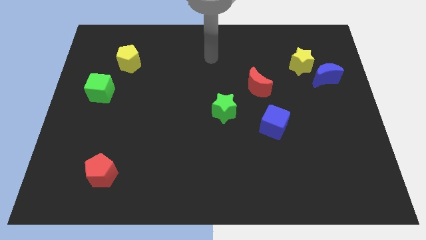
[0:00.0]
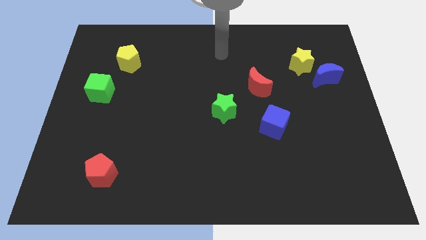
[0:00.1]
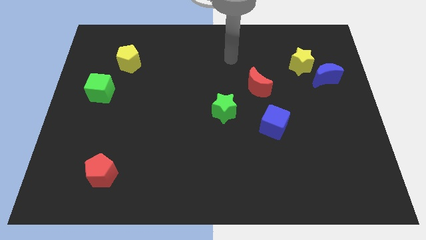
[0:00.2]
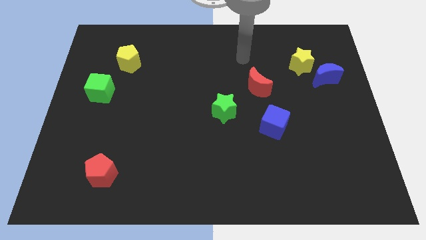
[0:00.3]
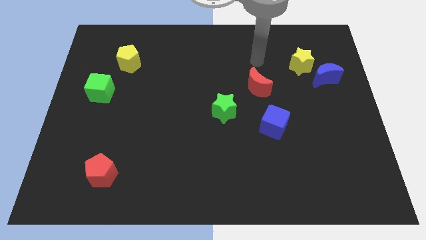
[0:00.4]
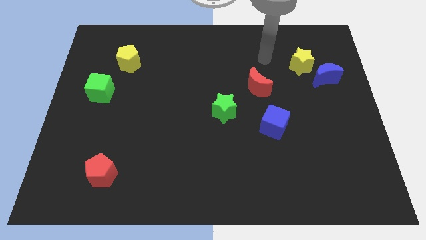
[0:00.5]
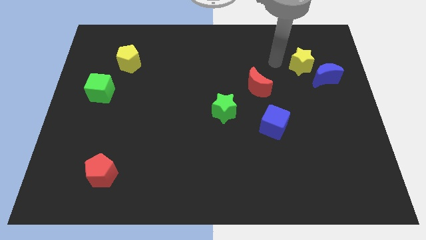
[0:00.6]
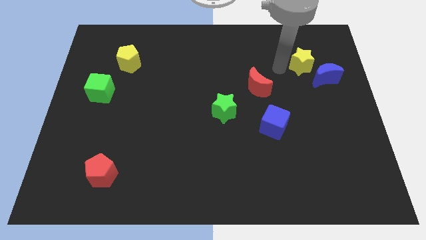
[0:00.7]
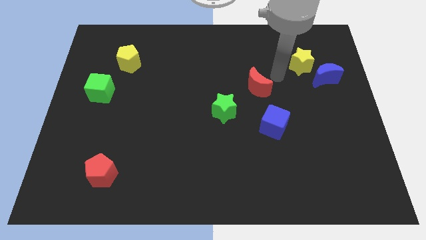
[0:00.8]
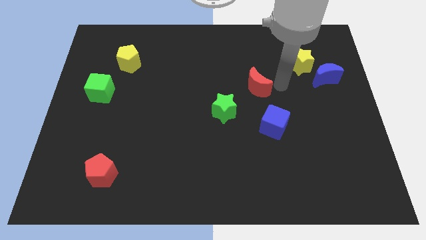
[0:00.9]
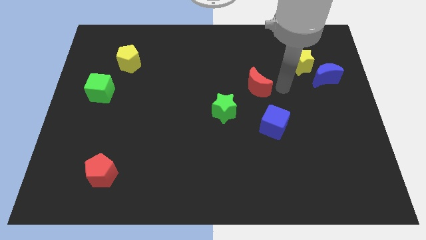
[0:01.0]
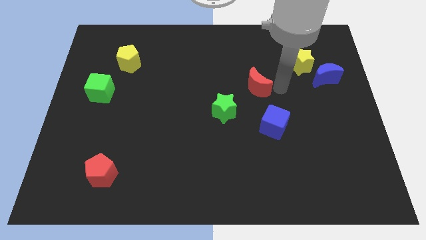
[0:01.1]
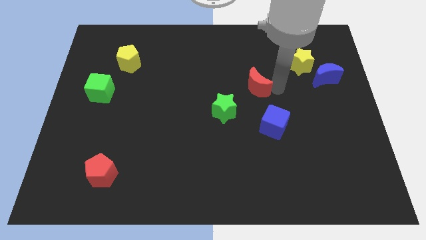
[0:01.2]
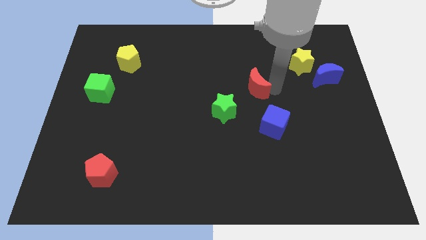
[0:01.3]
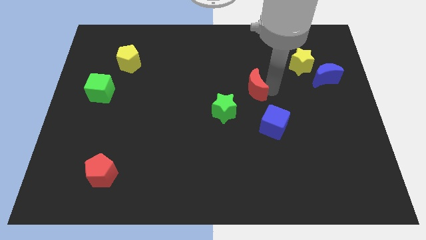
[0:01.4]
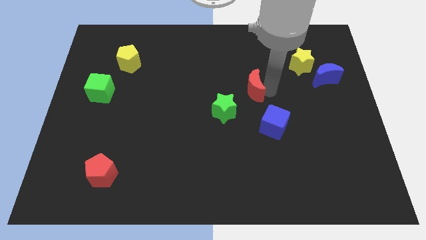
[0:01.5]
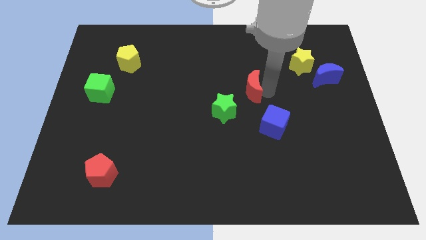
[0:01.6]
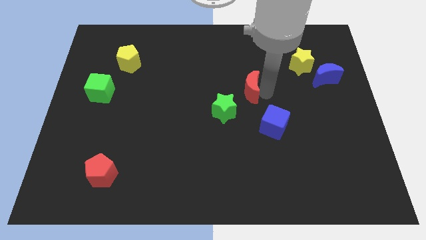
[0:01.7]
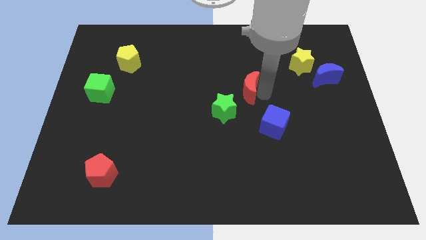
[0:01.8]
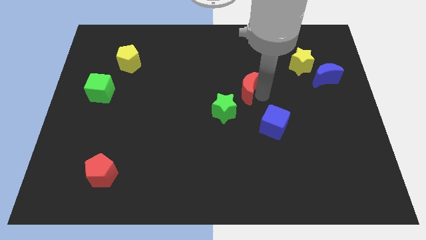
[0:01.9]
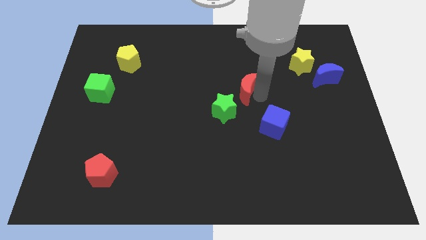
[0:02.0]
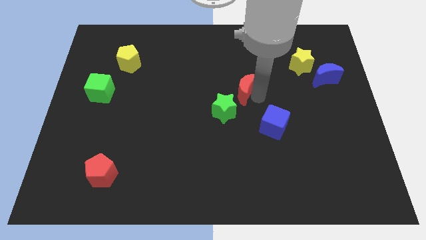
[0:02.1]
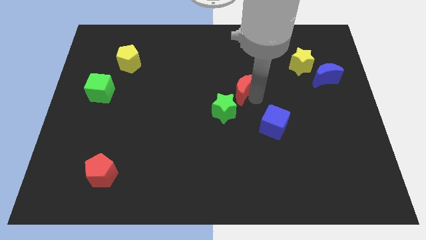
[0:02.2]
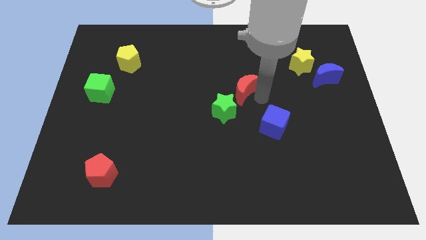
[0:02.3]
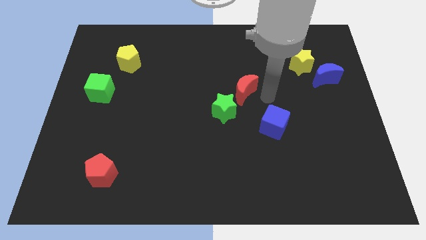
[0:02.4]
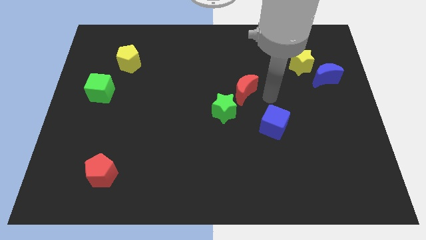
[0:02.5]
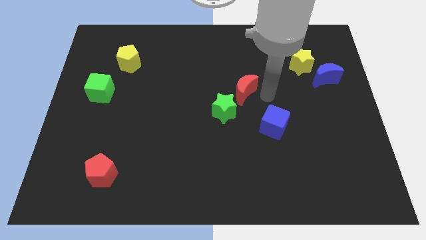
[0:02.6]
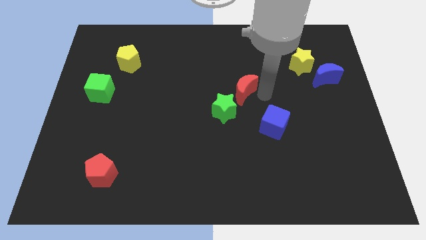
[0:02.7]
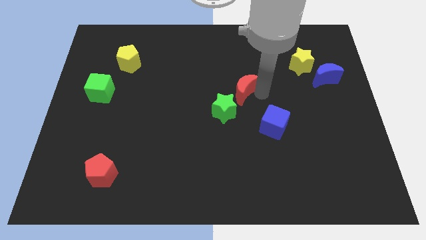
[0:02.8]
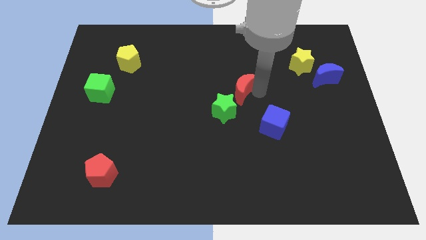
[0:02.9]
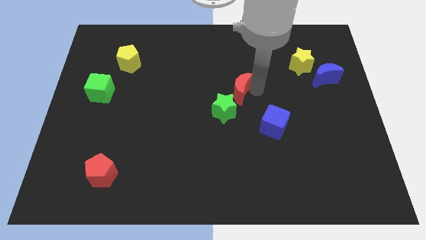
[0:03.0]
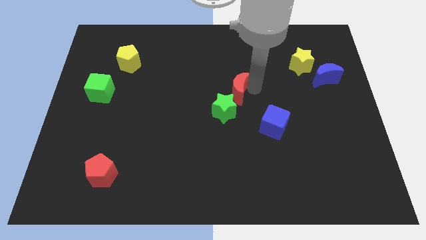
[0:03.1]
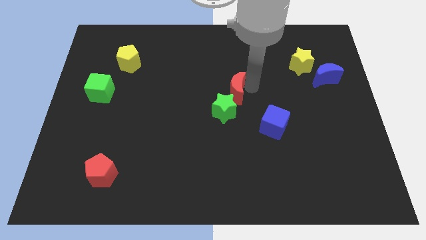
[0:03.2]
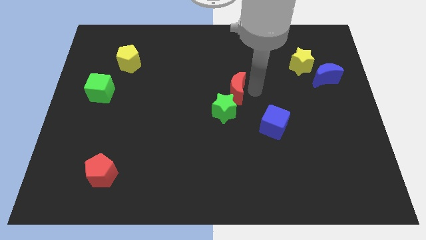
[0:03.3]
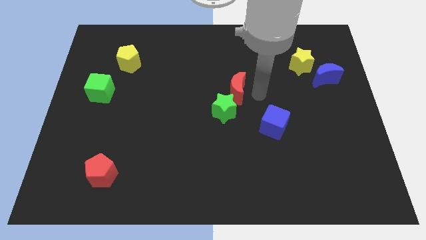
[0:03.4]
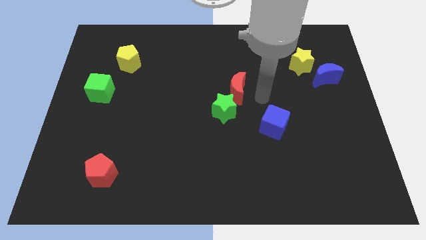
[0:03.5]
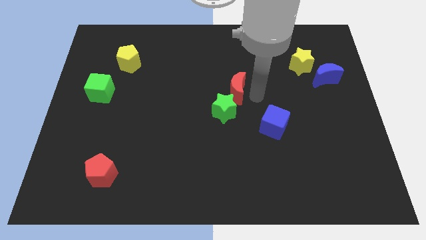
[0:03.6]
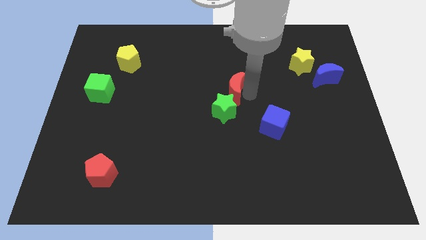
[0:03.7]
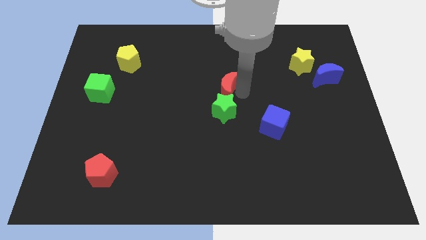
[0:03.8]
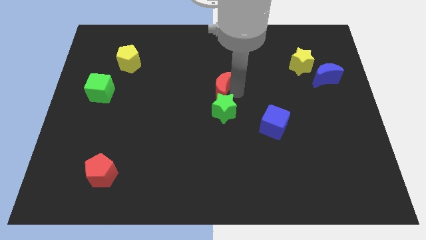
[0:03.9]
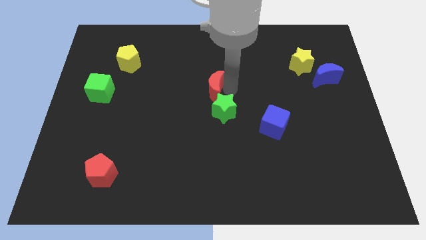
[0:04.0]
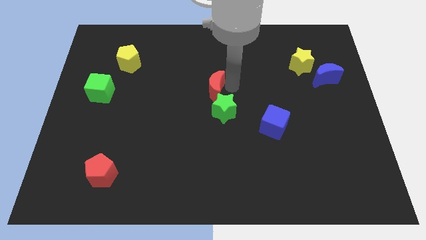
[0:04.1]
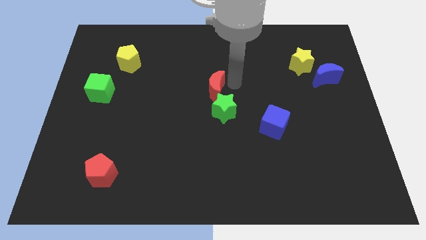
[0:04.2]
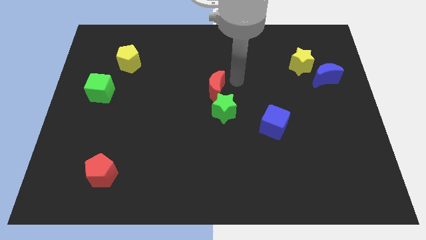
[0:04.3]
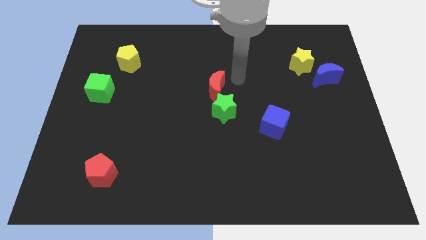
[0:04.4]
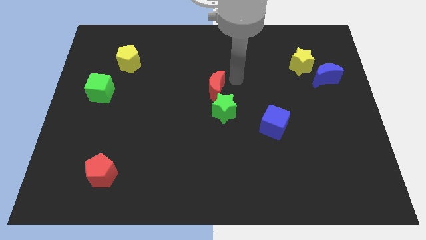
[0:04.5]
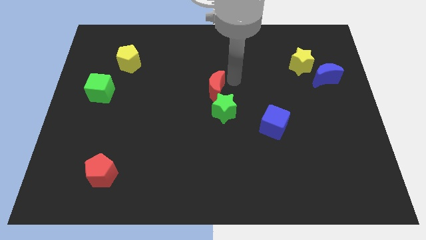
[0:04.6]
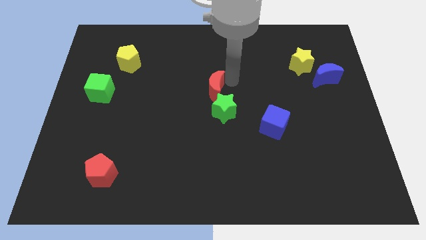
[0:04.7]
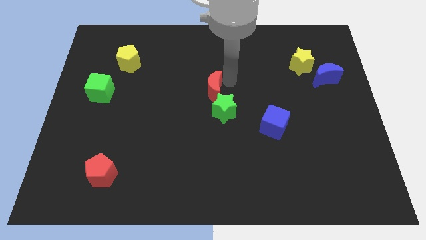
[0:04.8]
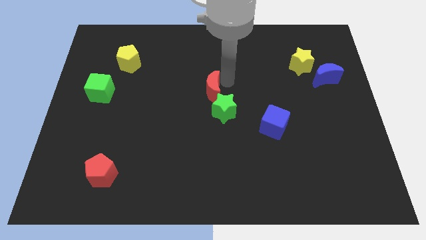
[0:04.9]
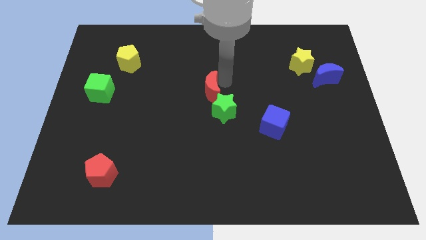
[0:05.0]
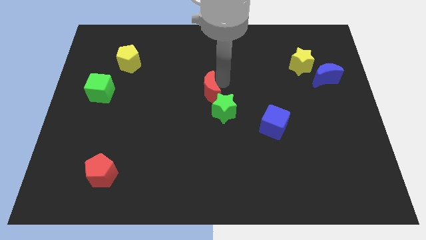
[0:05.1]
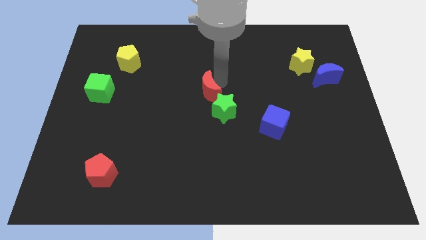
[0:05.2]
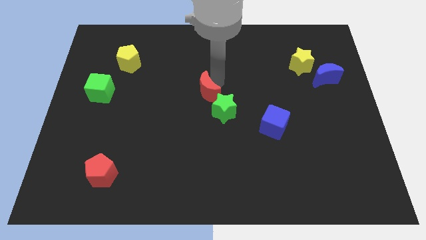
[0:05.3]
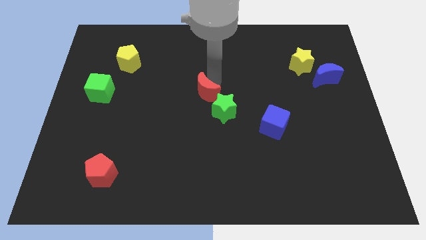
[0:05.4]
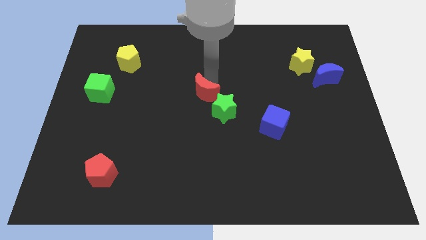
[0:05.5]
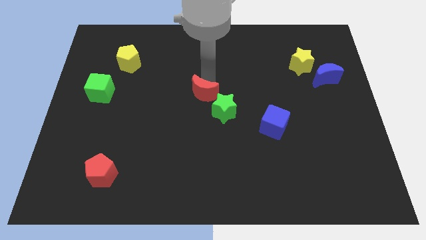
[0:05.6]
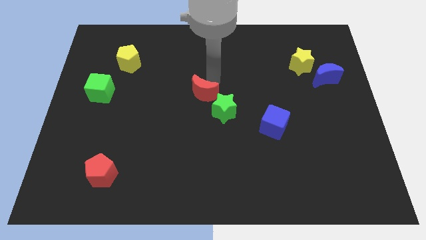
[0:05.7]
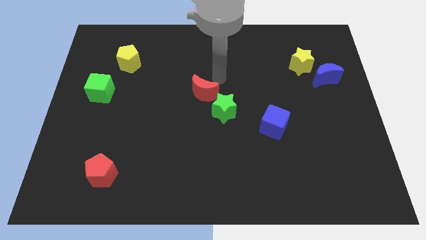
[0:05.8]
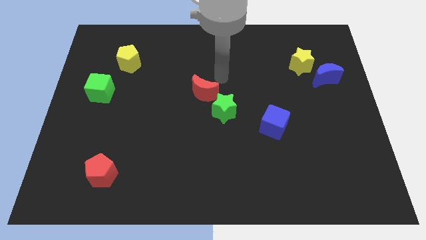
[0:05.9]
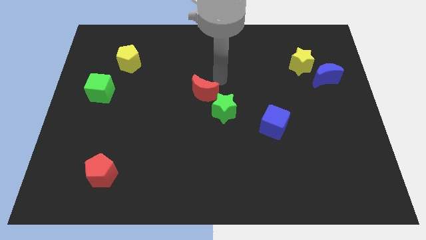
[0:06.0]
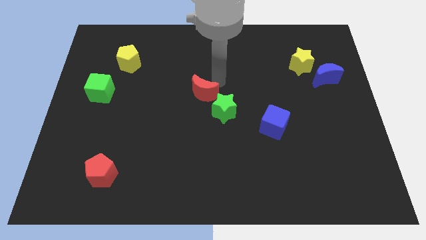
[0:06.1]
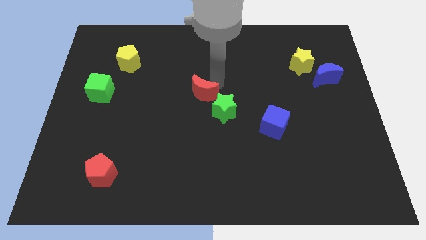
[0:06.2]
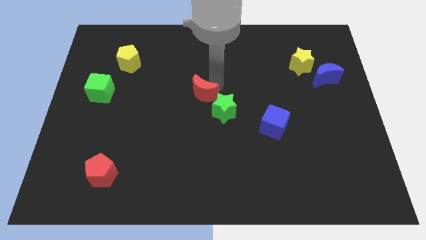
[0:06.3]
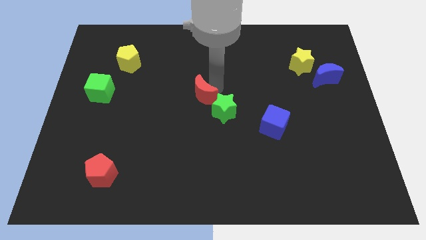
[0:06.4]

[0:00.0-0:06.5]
put the red moon to the left of the green star

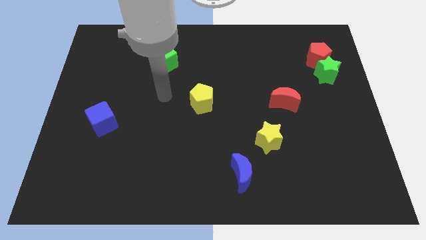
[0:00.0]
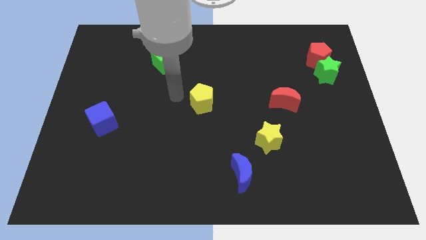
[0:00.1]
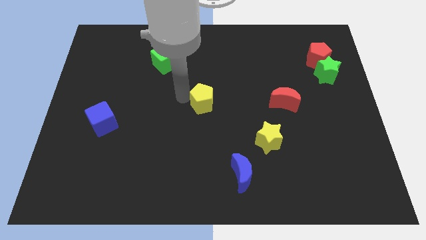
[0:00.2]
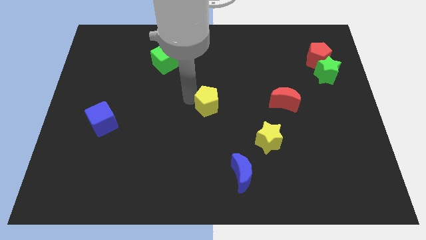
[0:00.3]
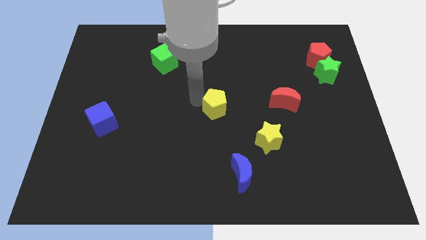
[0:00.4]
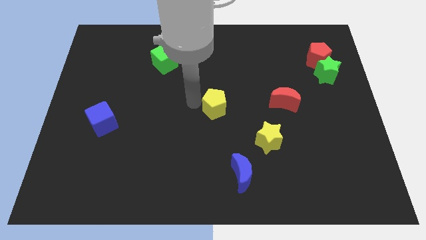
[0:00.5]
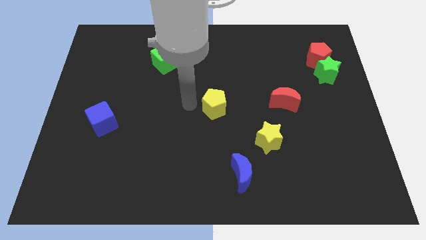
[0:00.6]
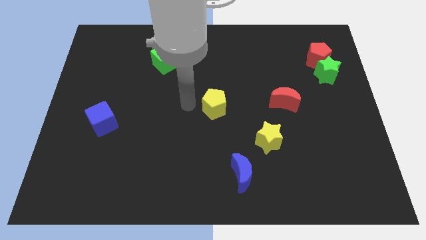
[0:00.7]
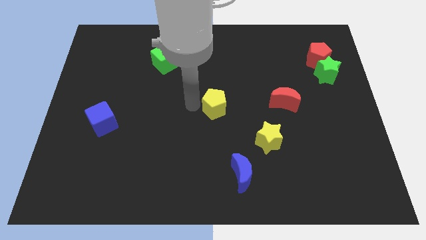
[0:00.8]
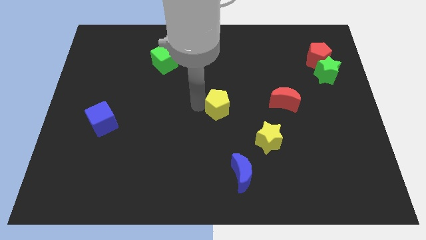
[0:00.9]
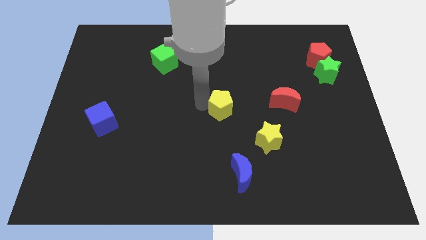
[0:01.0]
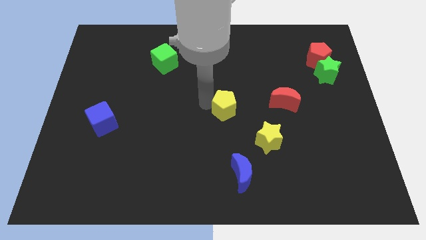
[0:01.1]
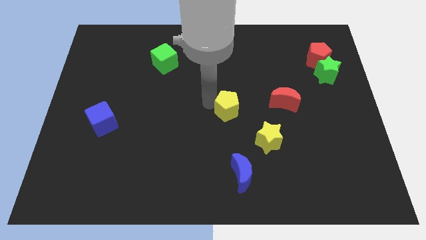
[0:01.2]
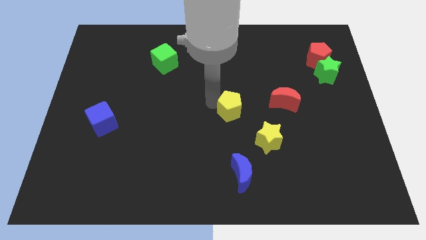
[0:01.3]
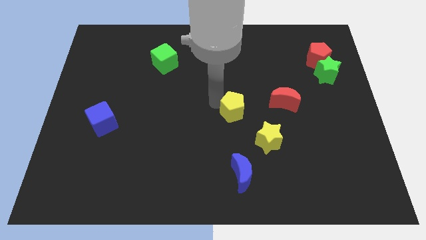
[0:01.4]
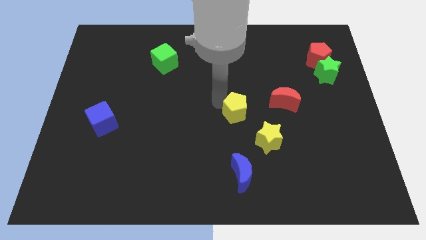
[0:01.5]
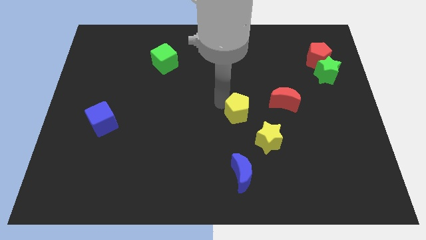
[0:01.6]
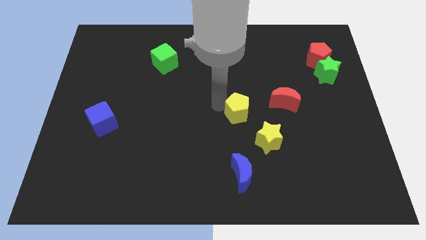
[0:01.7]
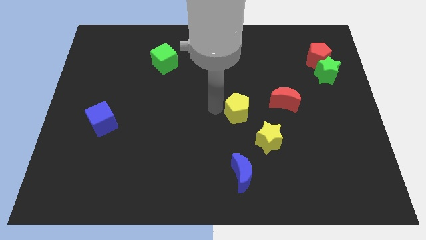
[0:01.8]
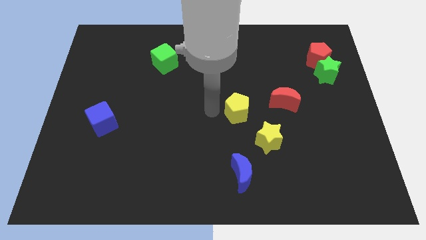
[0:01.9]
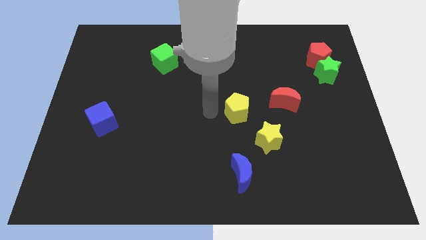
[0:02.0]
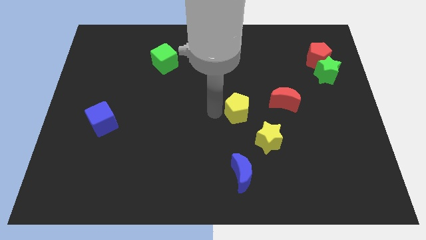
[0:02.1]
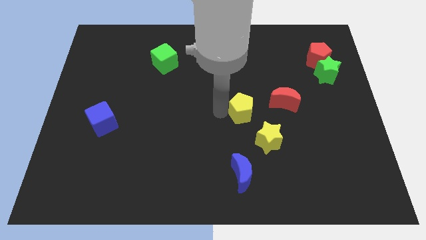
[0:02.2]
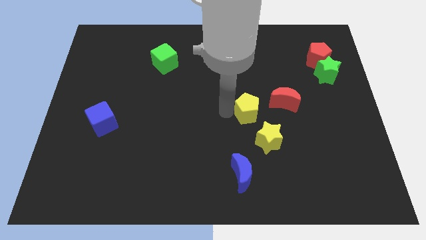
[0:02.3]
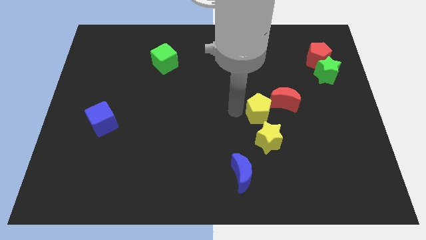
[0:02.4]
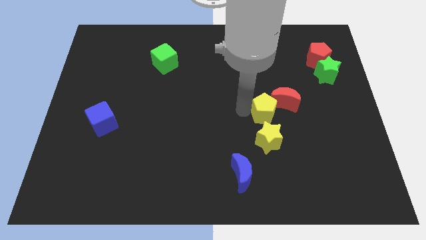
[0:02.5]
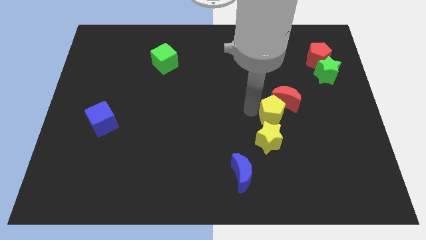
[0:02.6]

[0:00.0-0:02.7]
slide the yellow pentagon diagonally up and to the right of the yellow star
